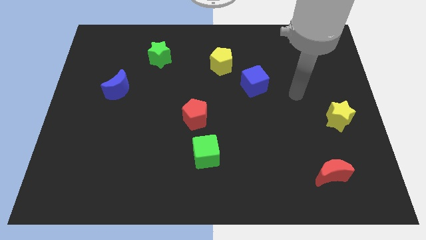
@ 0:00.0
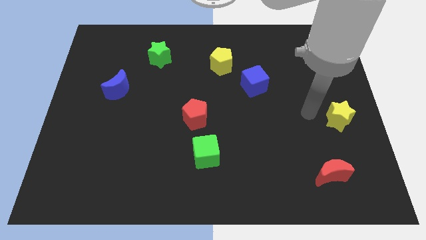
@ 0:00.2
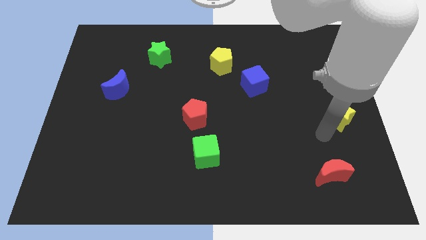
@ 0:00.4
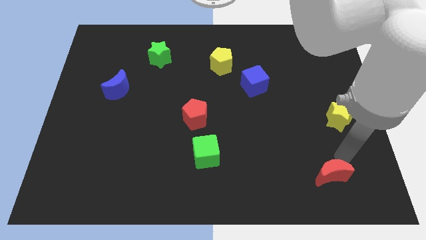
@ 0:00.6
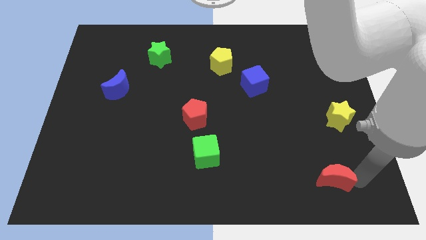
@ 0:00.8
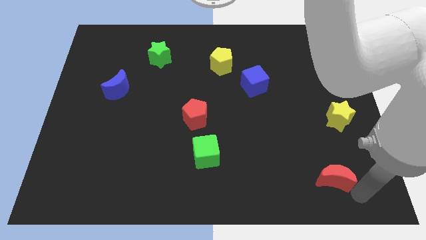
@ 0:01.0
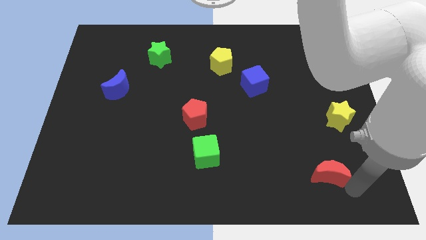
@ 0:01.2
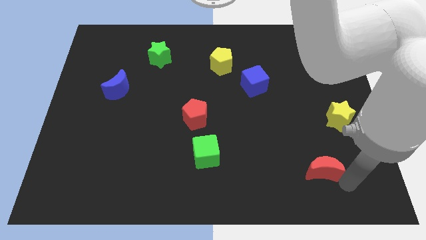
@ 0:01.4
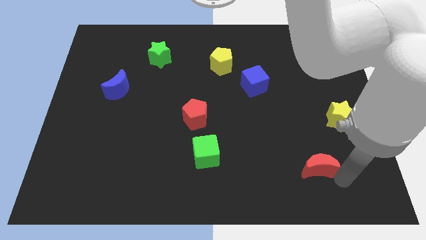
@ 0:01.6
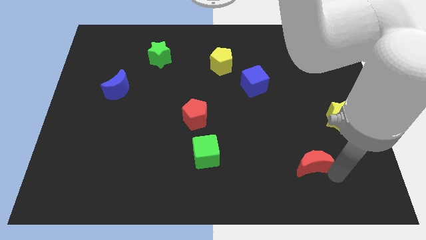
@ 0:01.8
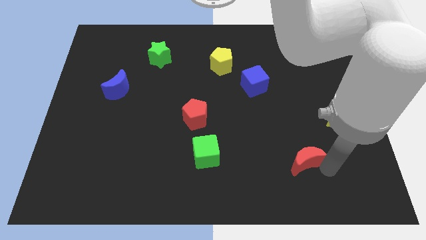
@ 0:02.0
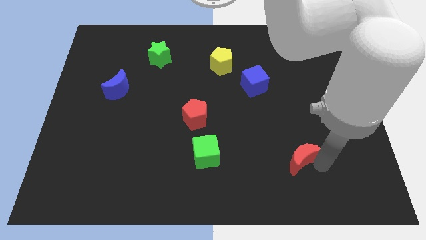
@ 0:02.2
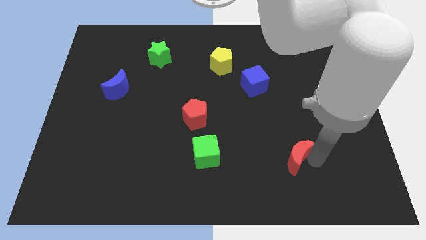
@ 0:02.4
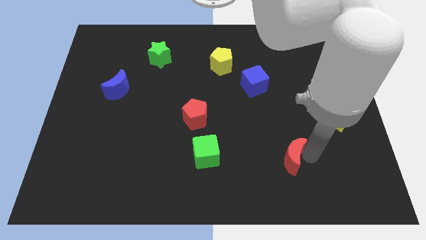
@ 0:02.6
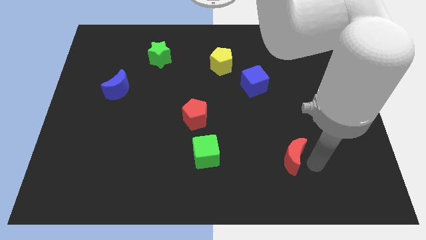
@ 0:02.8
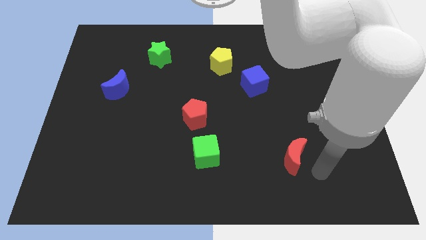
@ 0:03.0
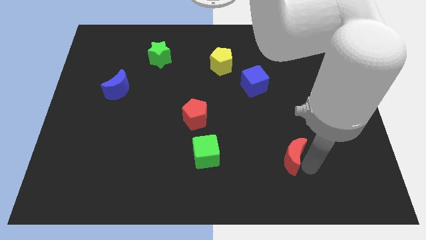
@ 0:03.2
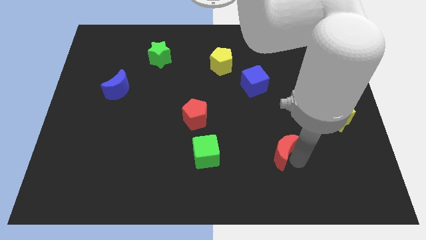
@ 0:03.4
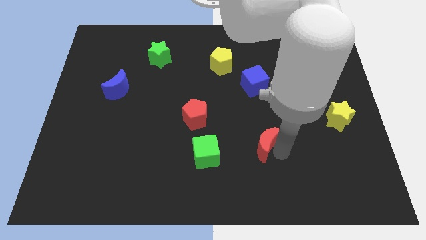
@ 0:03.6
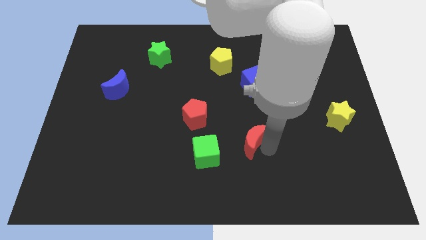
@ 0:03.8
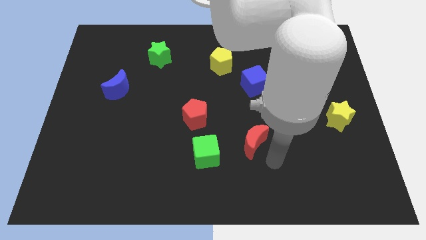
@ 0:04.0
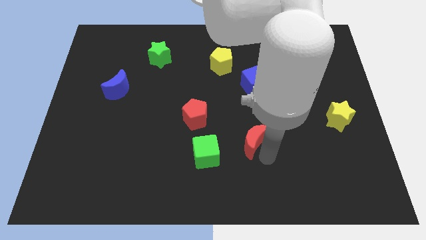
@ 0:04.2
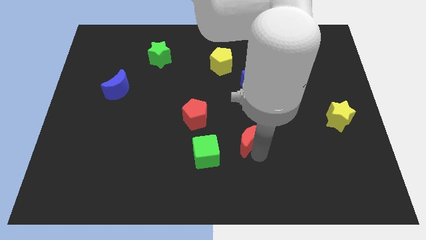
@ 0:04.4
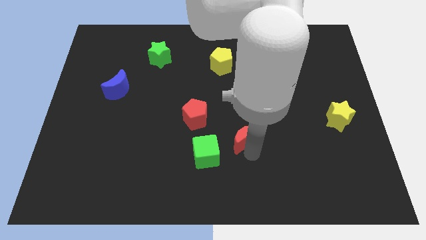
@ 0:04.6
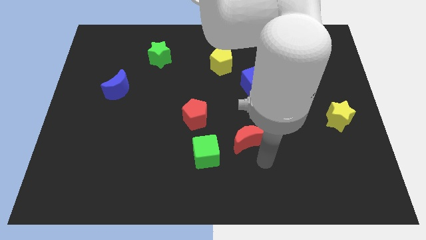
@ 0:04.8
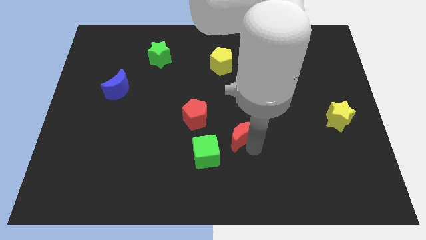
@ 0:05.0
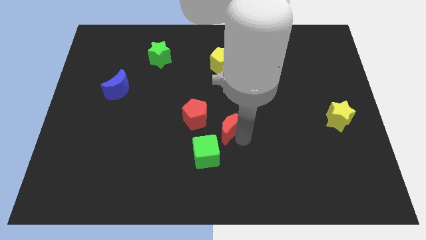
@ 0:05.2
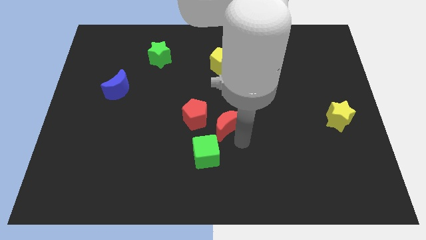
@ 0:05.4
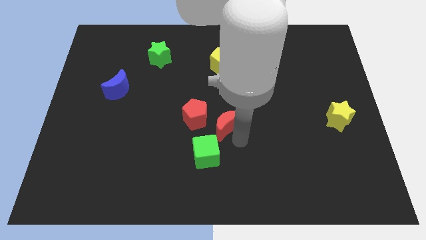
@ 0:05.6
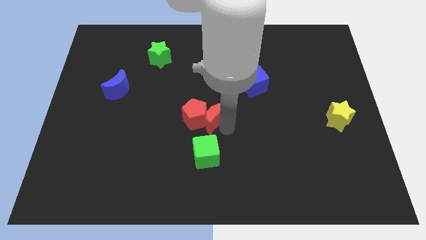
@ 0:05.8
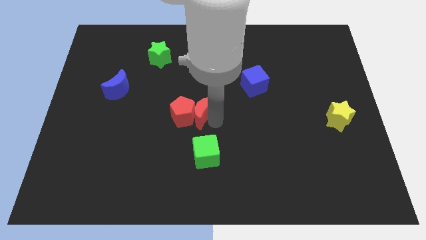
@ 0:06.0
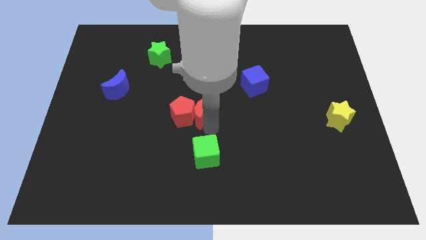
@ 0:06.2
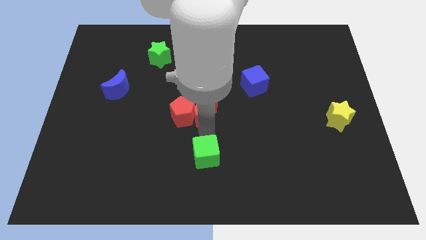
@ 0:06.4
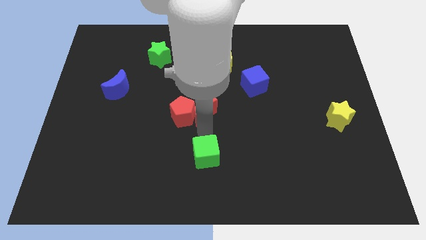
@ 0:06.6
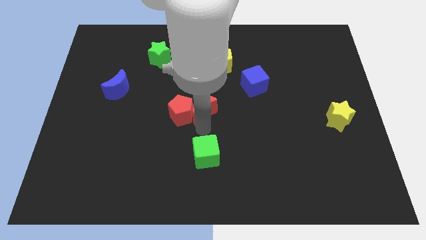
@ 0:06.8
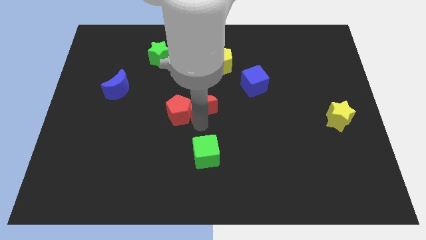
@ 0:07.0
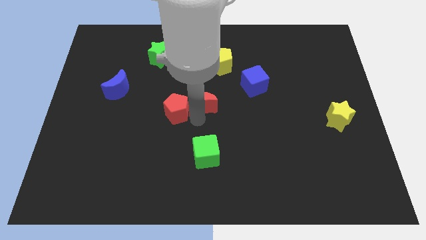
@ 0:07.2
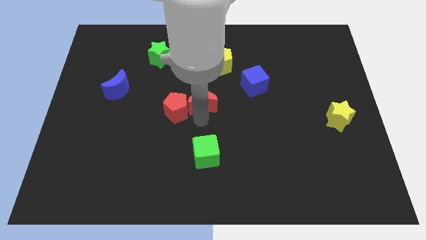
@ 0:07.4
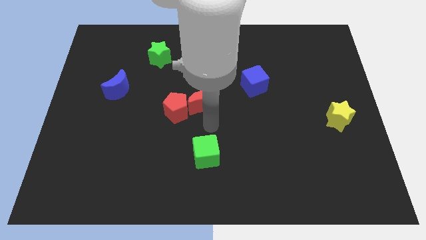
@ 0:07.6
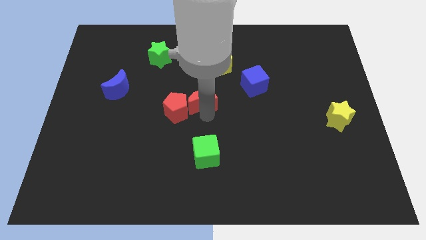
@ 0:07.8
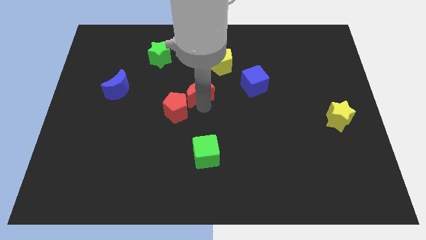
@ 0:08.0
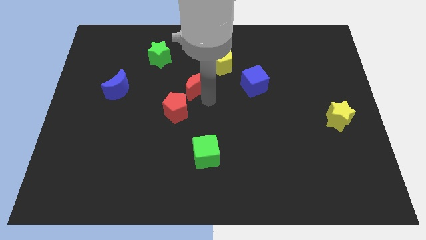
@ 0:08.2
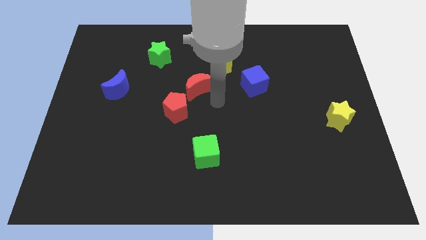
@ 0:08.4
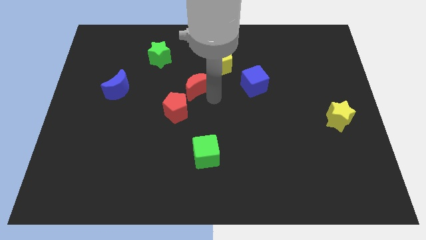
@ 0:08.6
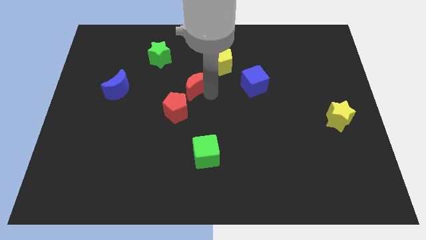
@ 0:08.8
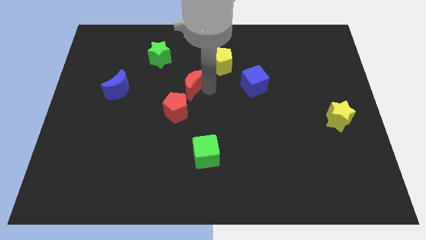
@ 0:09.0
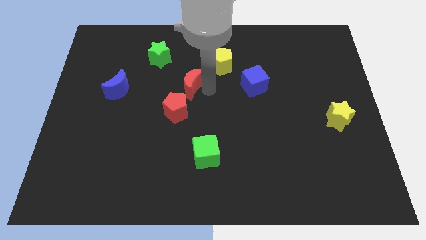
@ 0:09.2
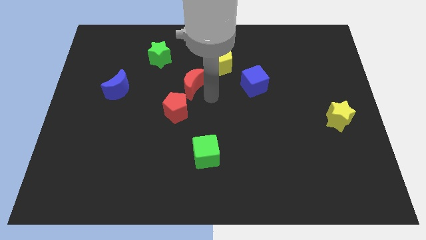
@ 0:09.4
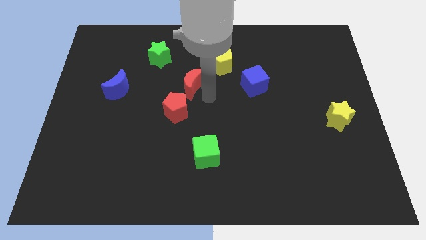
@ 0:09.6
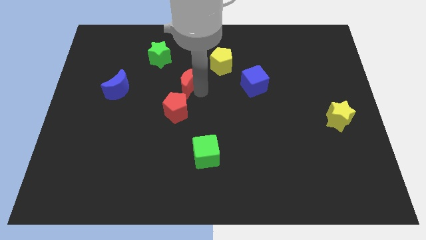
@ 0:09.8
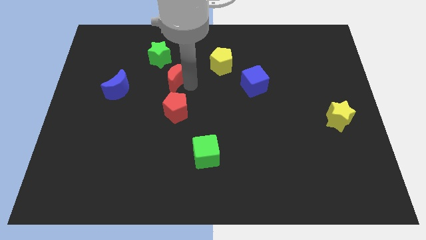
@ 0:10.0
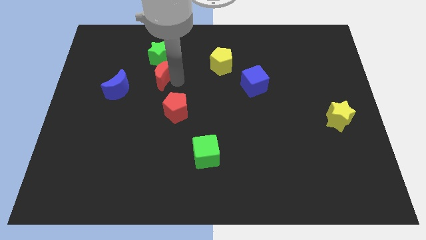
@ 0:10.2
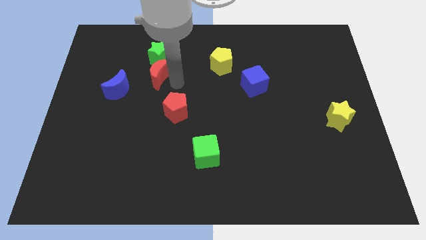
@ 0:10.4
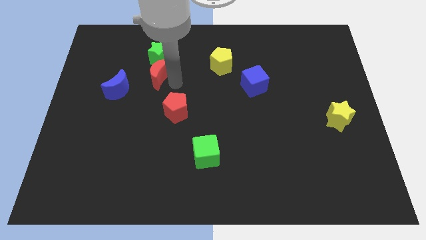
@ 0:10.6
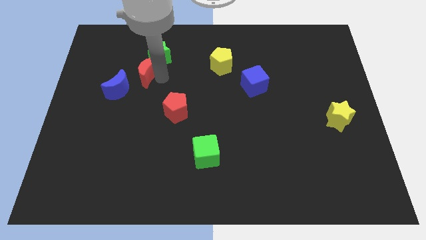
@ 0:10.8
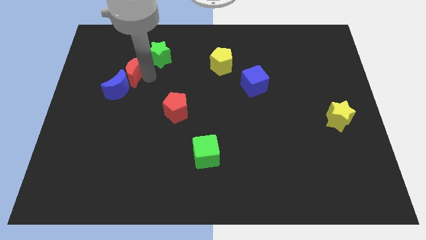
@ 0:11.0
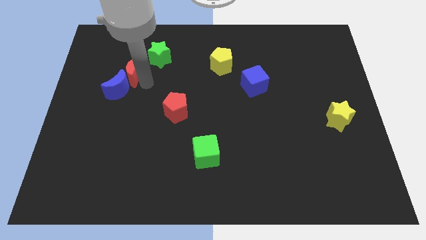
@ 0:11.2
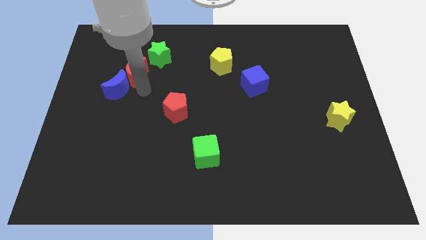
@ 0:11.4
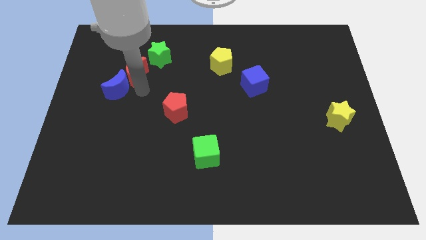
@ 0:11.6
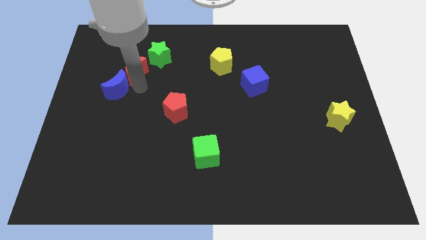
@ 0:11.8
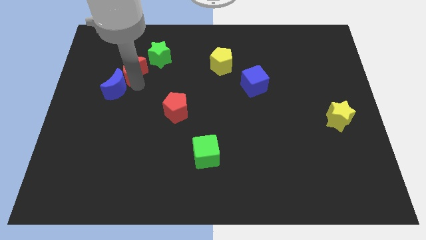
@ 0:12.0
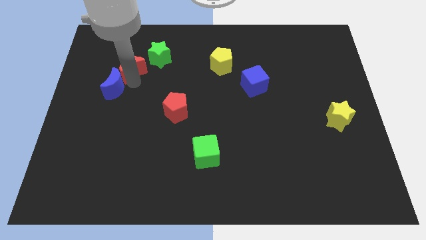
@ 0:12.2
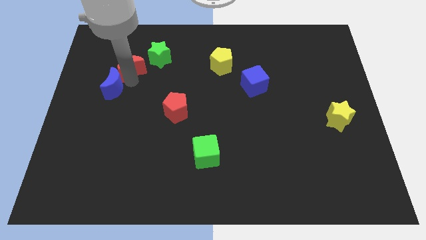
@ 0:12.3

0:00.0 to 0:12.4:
push the red moon to the left side of the green star
